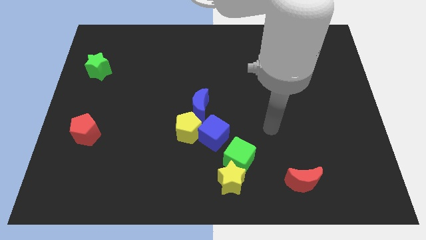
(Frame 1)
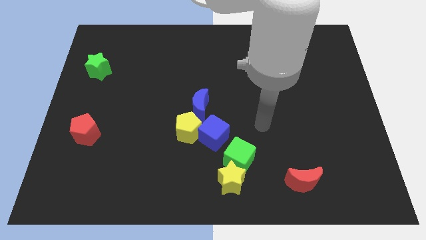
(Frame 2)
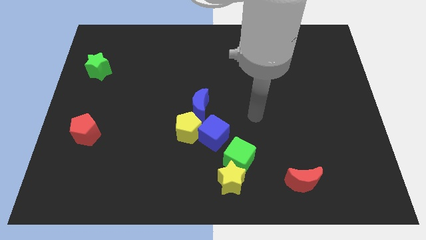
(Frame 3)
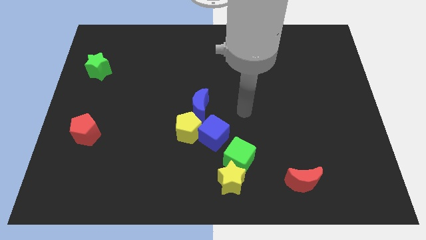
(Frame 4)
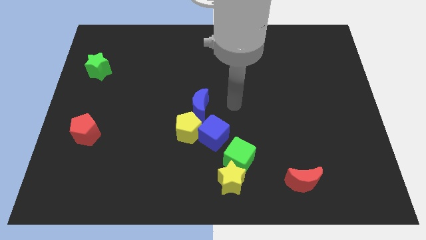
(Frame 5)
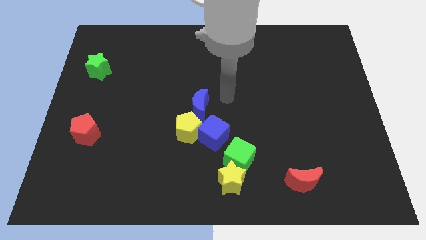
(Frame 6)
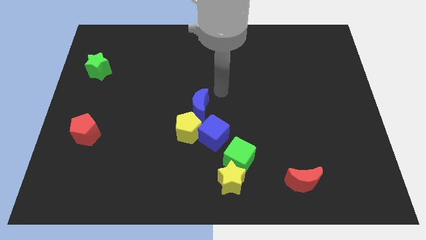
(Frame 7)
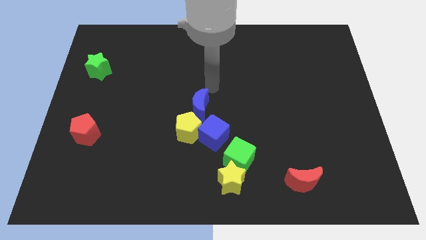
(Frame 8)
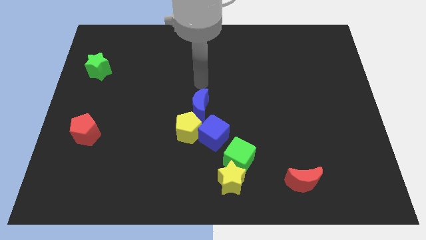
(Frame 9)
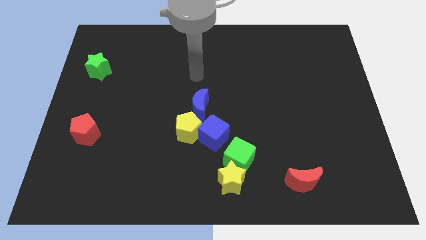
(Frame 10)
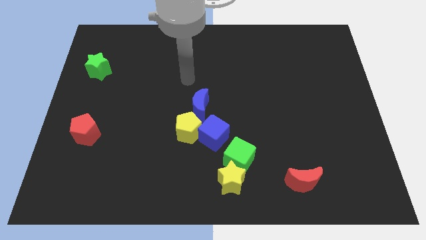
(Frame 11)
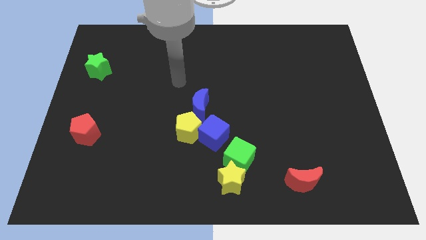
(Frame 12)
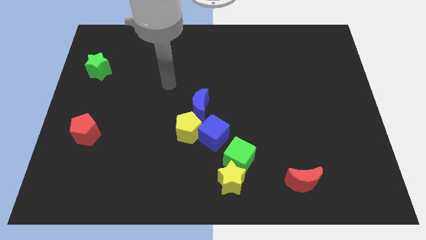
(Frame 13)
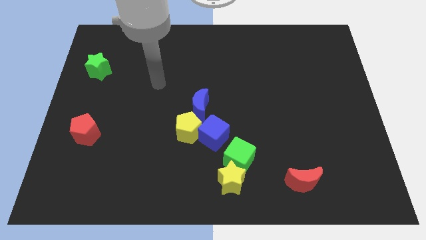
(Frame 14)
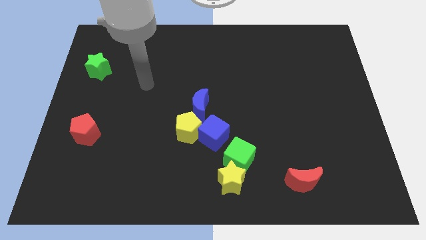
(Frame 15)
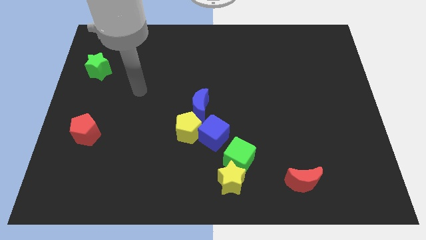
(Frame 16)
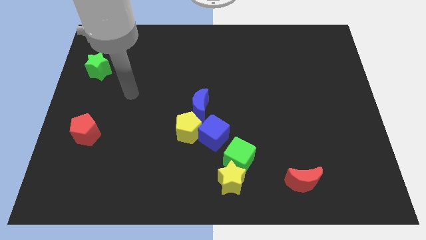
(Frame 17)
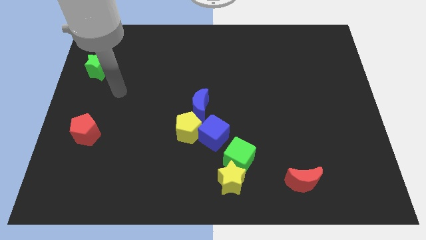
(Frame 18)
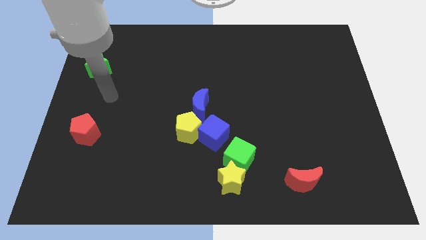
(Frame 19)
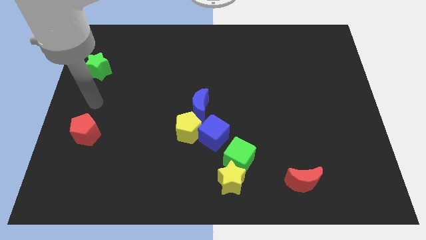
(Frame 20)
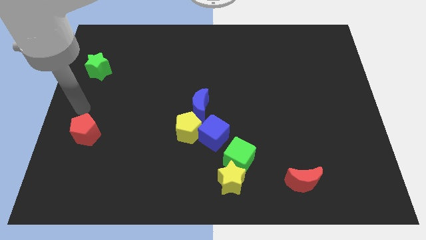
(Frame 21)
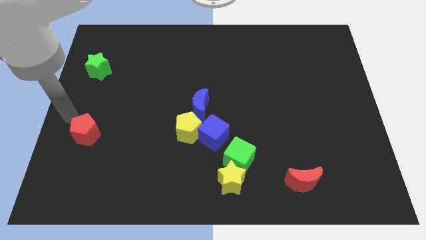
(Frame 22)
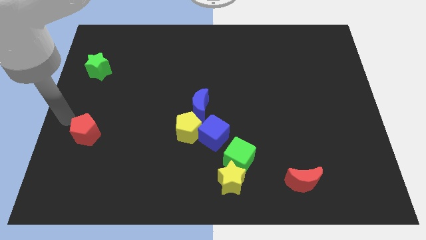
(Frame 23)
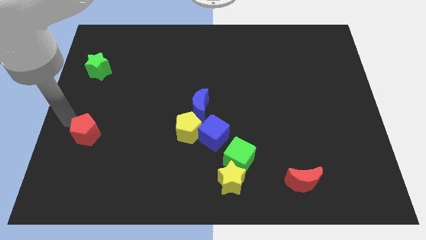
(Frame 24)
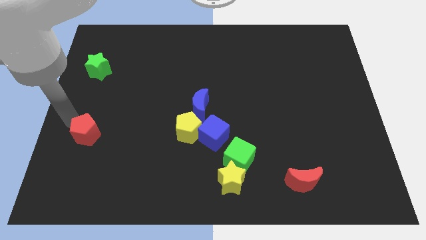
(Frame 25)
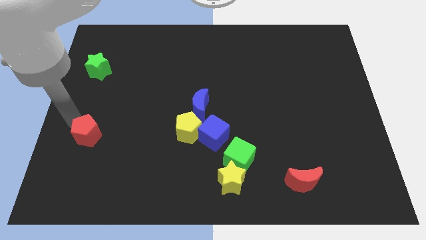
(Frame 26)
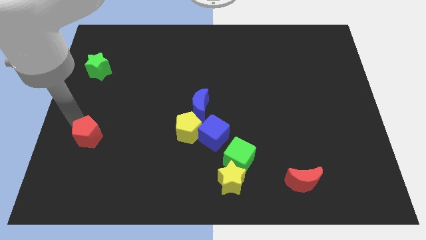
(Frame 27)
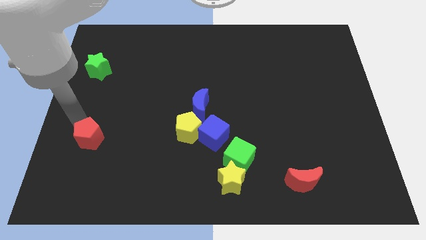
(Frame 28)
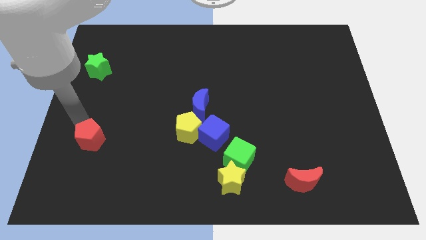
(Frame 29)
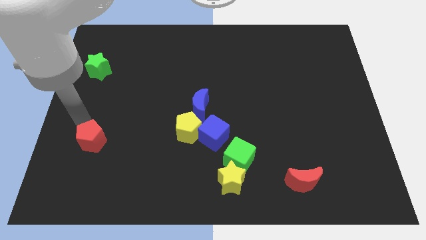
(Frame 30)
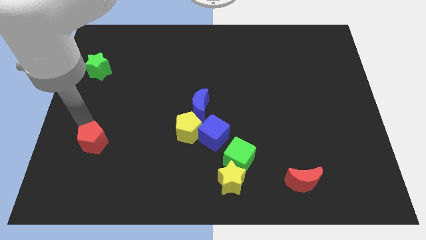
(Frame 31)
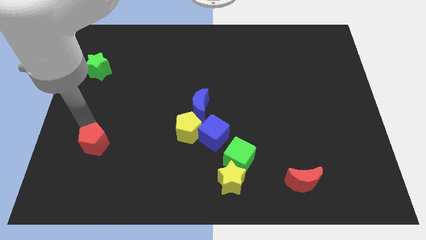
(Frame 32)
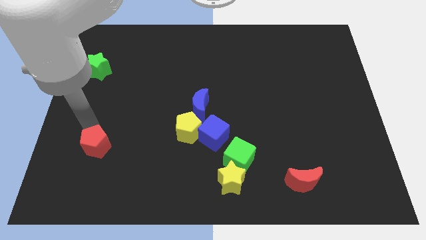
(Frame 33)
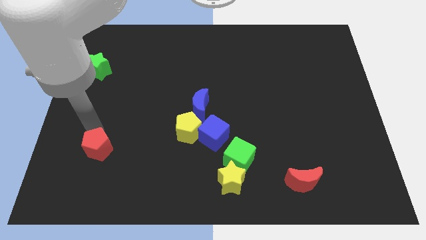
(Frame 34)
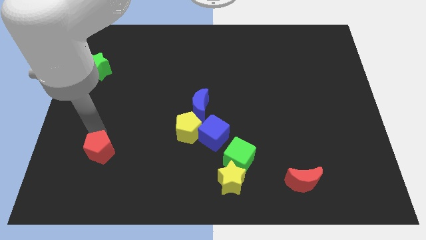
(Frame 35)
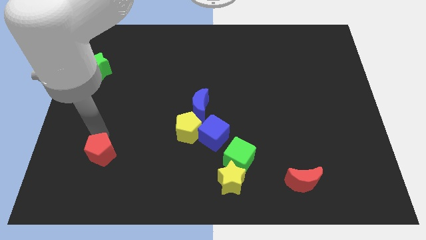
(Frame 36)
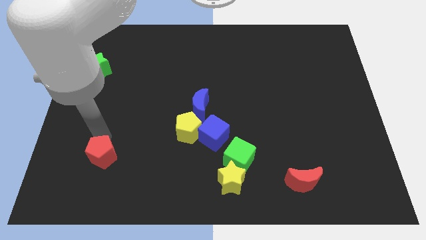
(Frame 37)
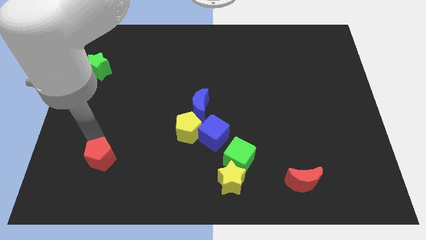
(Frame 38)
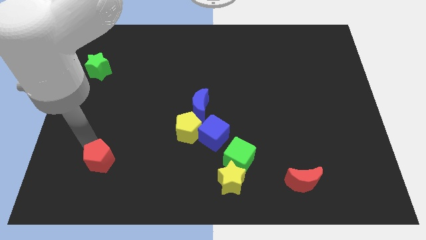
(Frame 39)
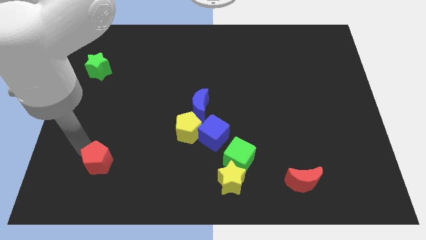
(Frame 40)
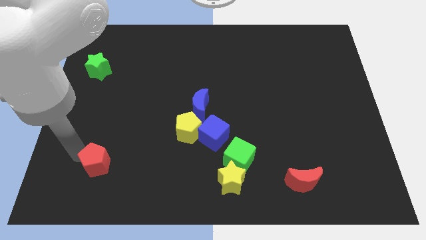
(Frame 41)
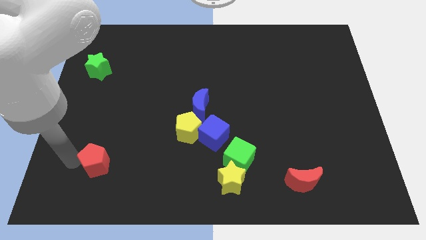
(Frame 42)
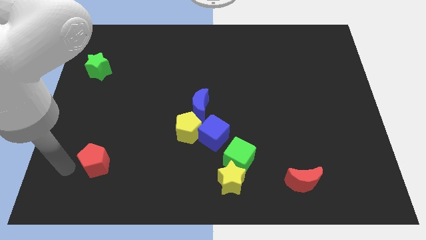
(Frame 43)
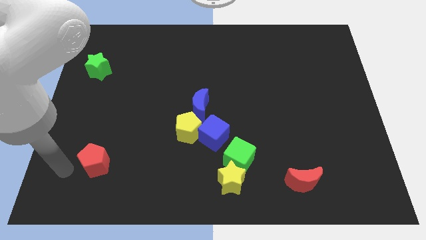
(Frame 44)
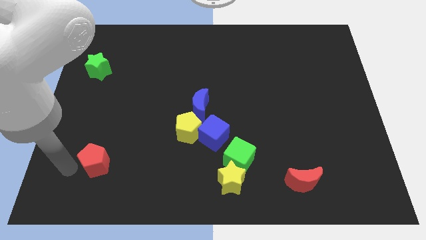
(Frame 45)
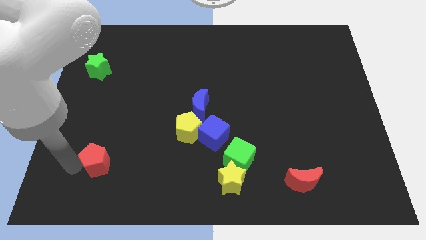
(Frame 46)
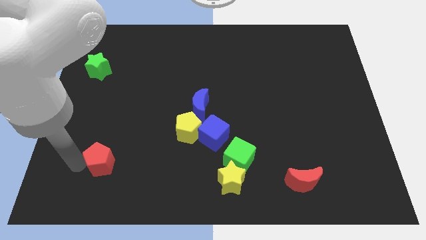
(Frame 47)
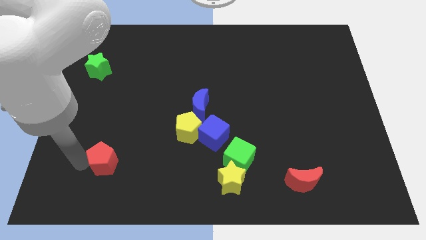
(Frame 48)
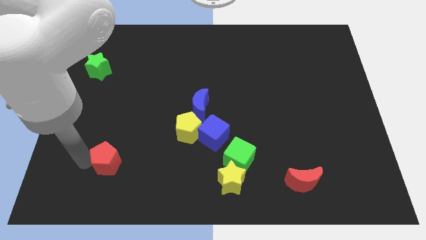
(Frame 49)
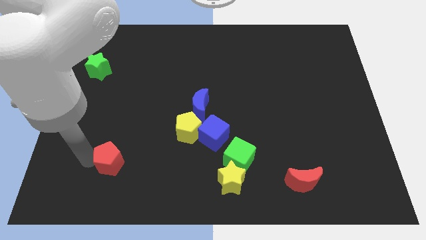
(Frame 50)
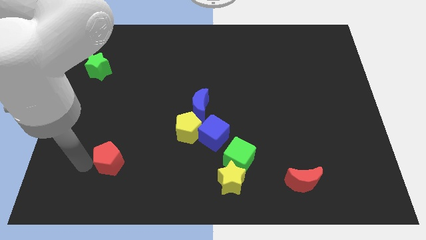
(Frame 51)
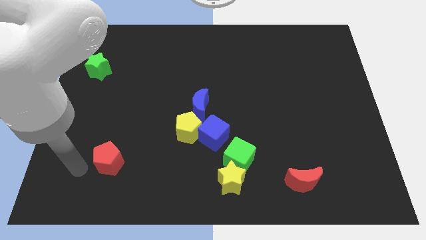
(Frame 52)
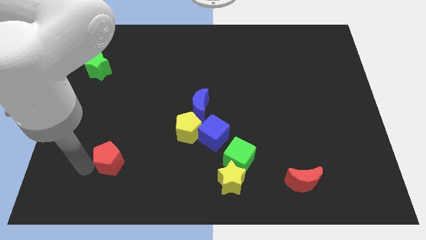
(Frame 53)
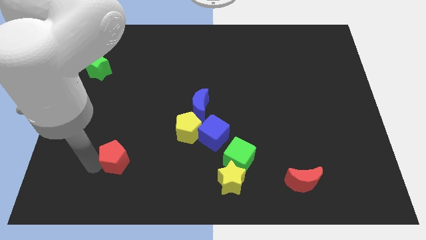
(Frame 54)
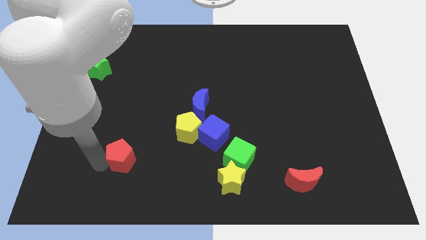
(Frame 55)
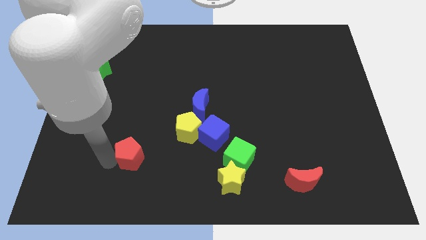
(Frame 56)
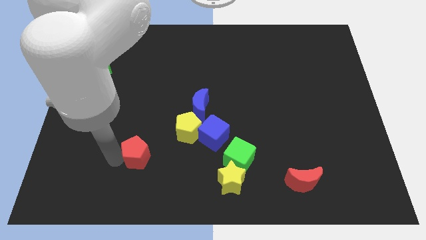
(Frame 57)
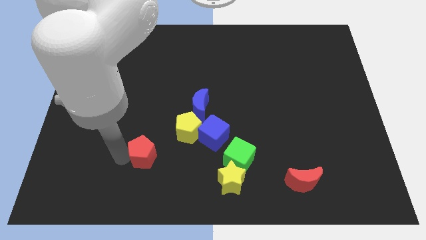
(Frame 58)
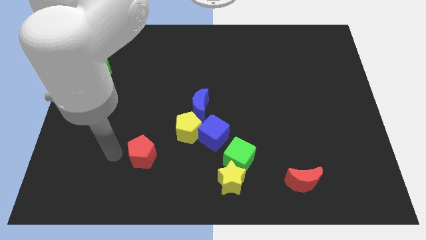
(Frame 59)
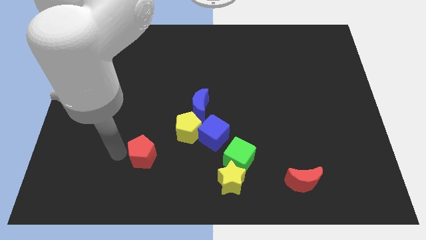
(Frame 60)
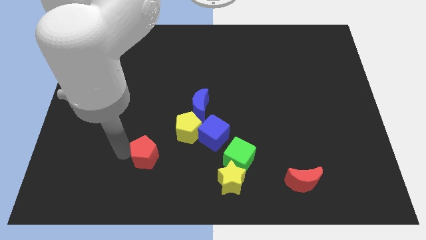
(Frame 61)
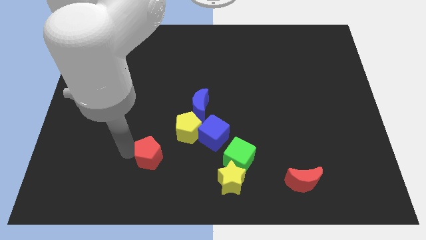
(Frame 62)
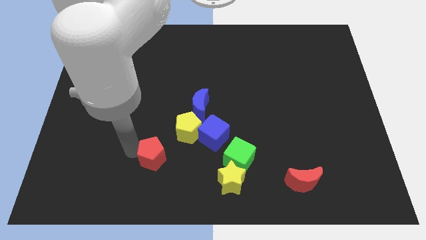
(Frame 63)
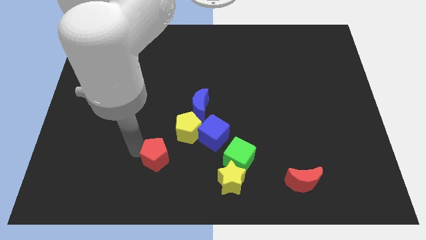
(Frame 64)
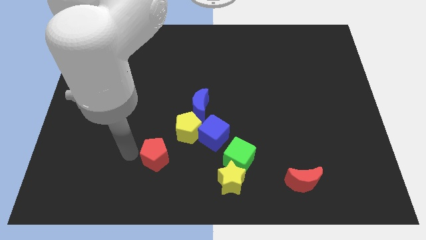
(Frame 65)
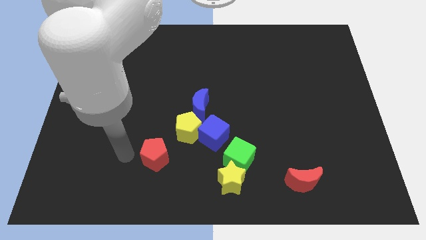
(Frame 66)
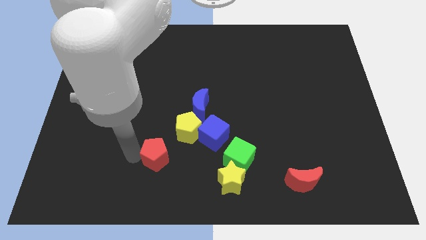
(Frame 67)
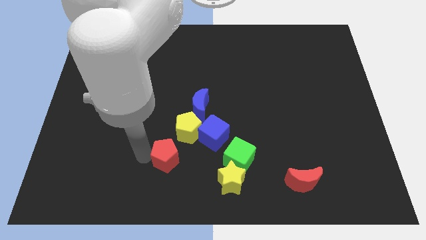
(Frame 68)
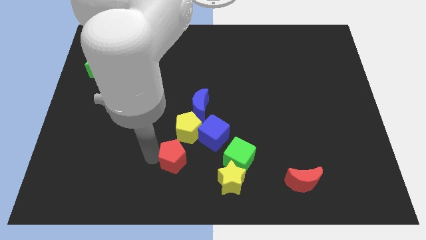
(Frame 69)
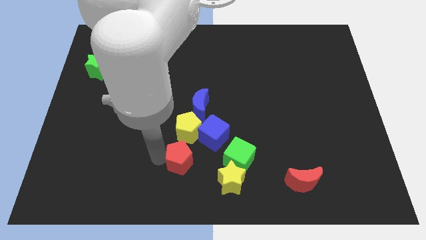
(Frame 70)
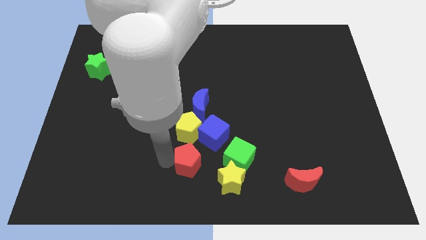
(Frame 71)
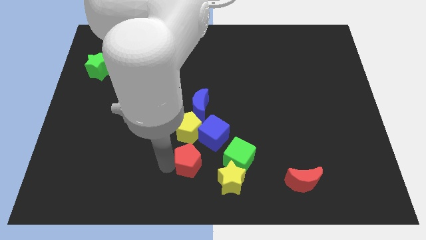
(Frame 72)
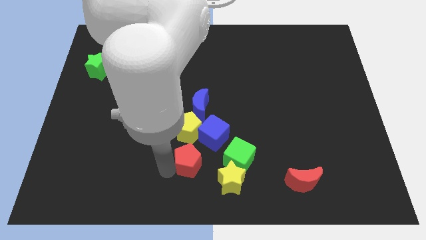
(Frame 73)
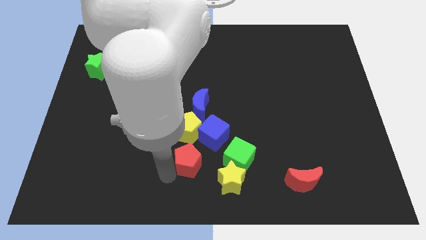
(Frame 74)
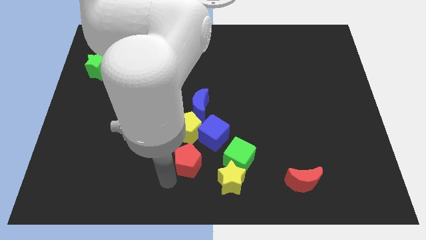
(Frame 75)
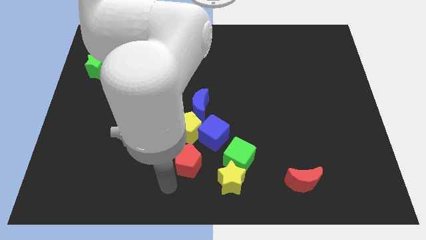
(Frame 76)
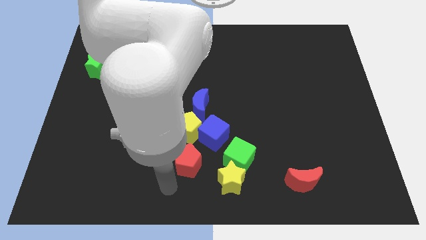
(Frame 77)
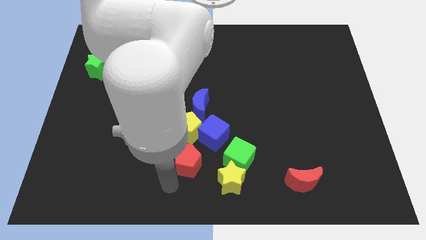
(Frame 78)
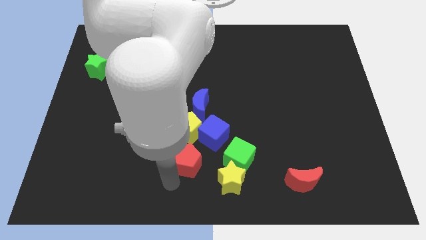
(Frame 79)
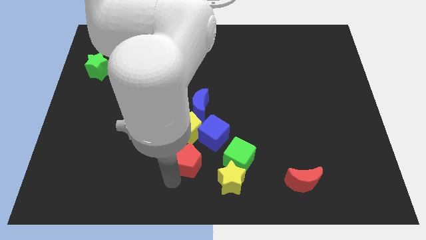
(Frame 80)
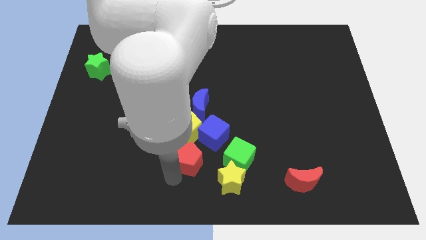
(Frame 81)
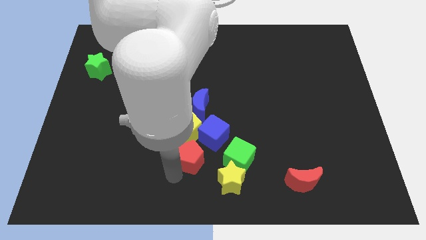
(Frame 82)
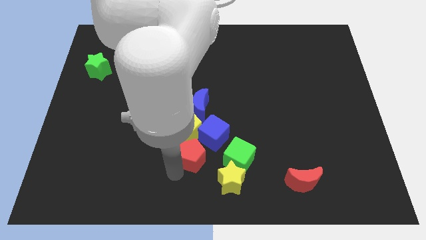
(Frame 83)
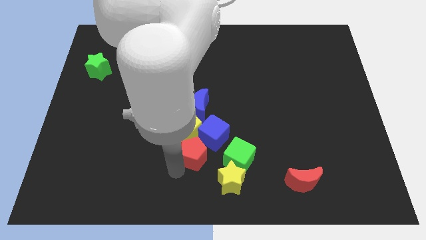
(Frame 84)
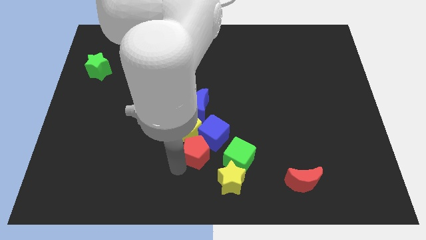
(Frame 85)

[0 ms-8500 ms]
slide the red pentagon next to the blue cube
